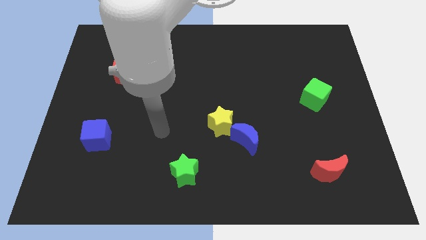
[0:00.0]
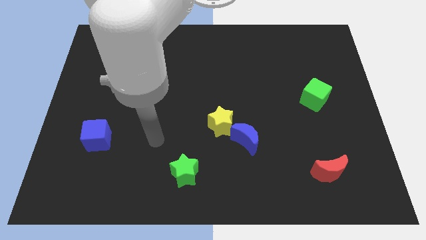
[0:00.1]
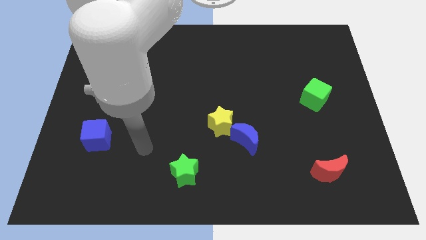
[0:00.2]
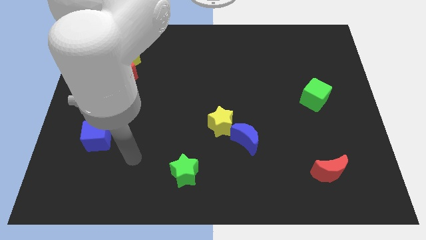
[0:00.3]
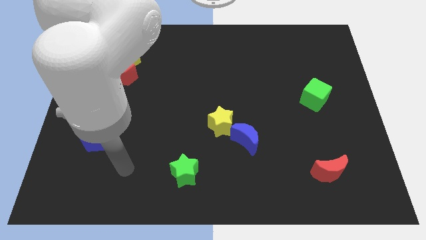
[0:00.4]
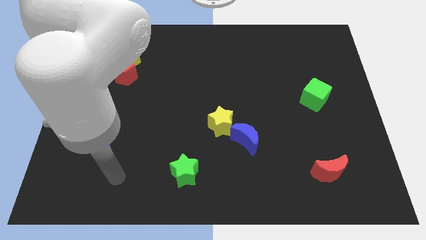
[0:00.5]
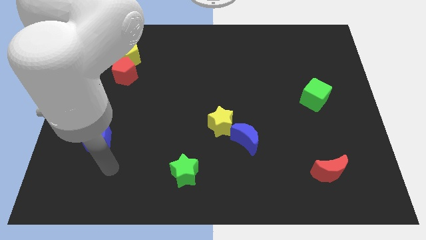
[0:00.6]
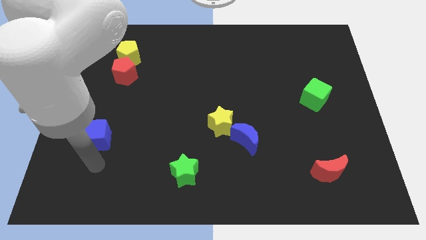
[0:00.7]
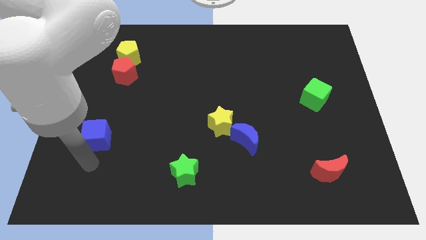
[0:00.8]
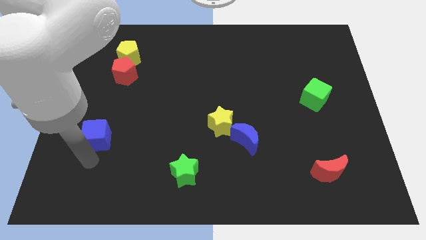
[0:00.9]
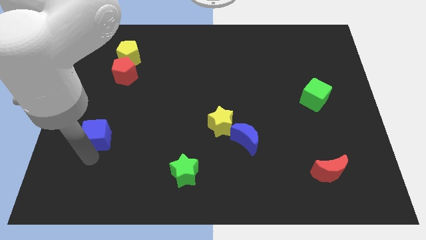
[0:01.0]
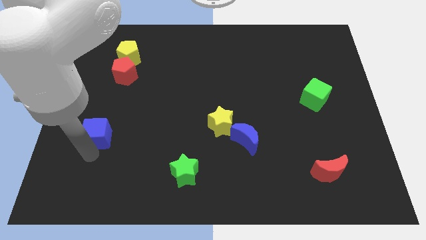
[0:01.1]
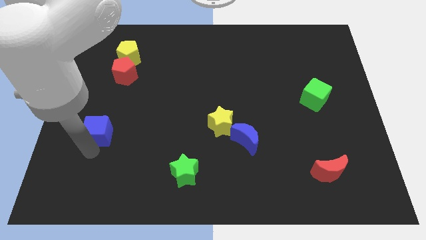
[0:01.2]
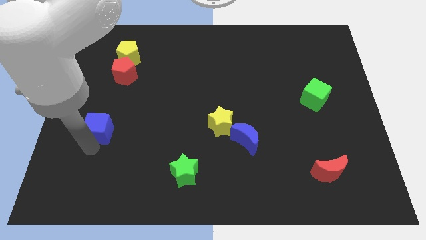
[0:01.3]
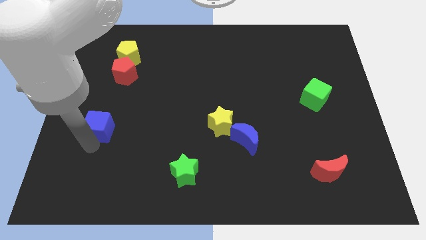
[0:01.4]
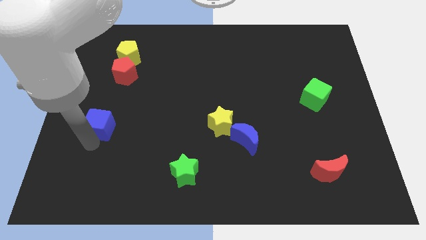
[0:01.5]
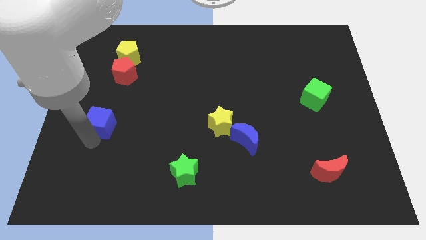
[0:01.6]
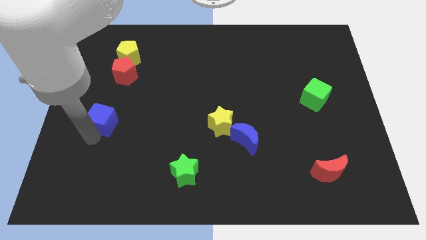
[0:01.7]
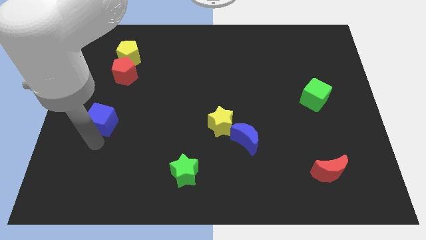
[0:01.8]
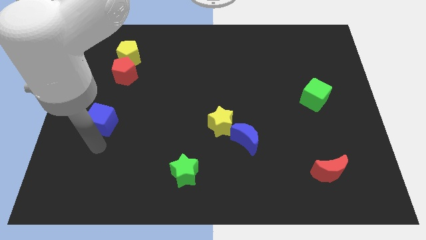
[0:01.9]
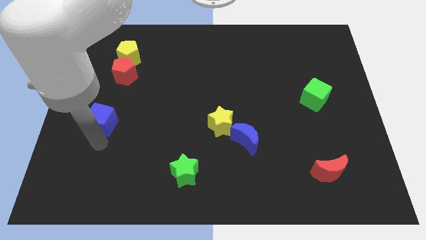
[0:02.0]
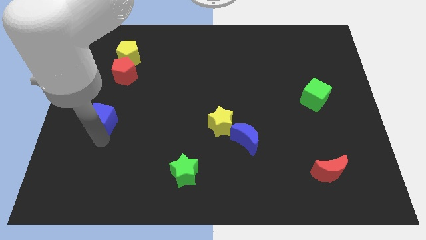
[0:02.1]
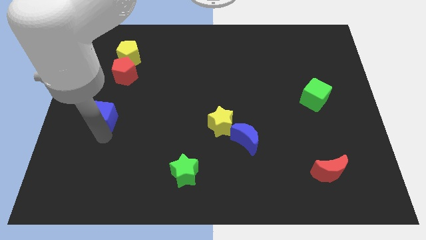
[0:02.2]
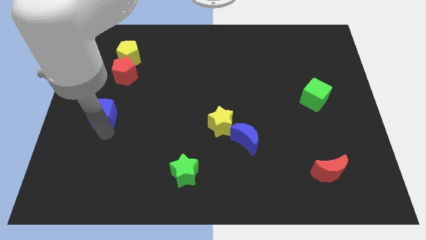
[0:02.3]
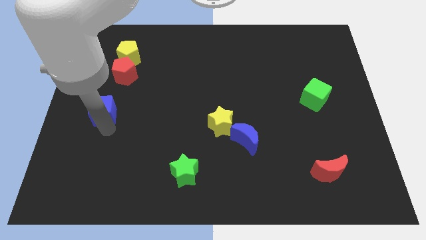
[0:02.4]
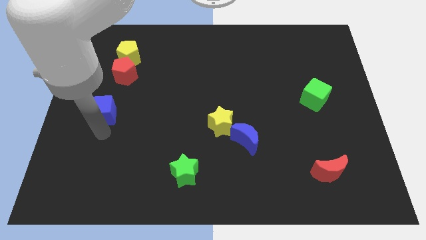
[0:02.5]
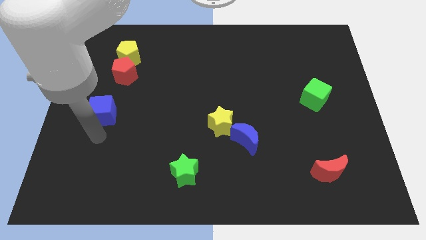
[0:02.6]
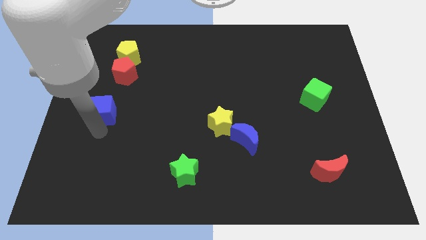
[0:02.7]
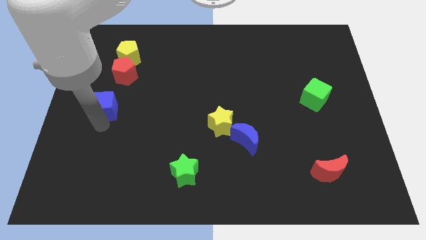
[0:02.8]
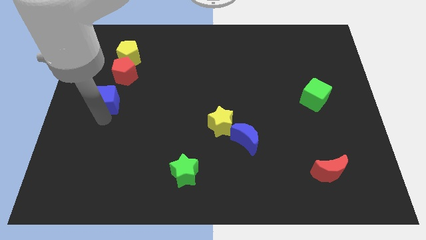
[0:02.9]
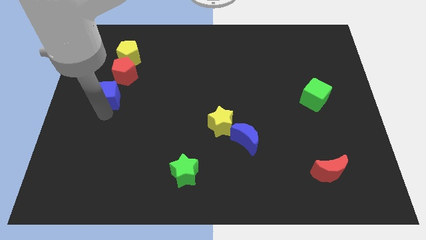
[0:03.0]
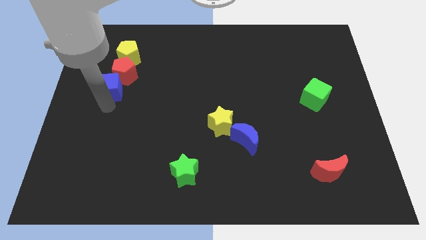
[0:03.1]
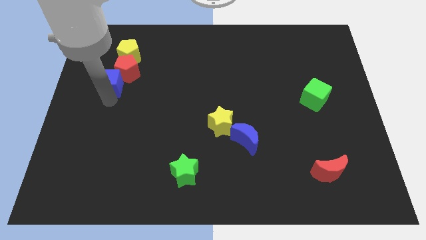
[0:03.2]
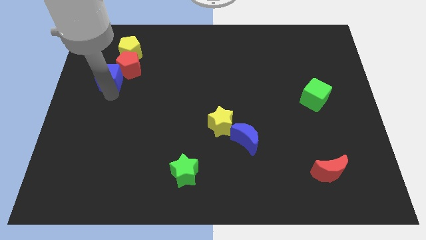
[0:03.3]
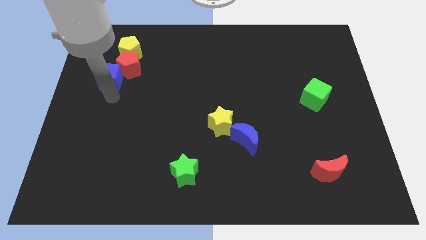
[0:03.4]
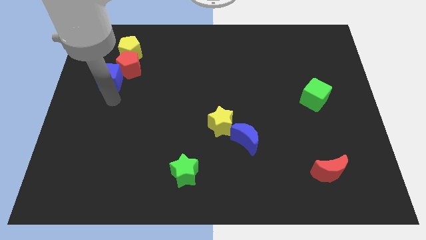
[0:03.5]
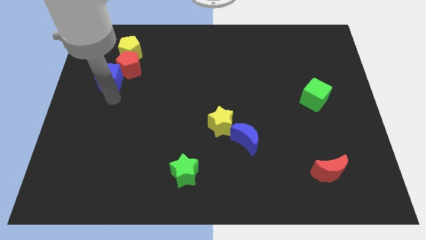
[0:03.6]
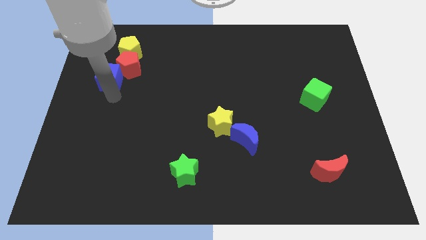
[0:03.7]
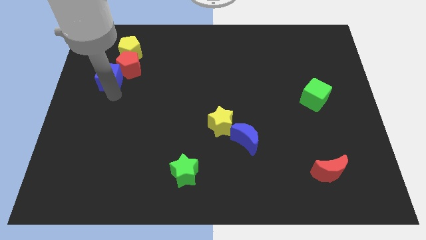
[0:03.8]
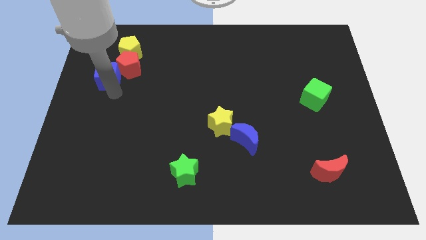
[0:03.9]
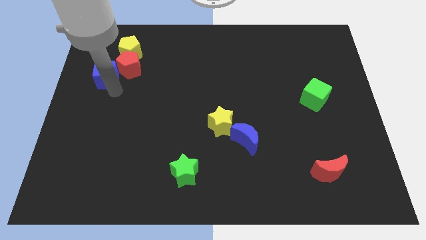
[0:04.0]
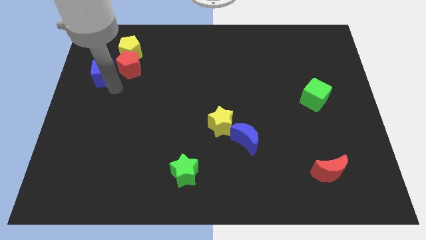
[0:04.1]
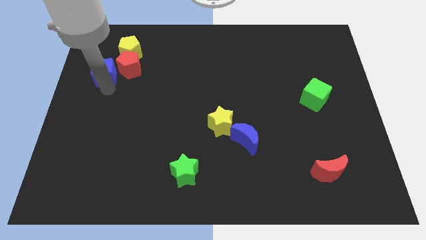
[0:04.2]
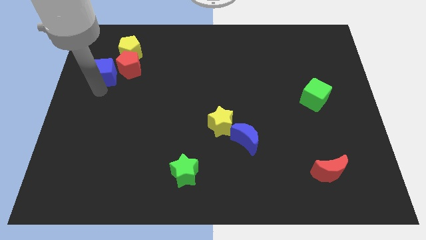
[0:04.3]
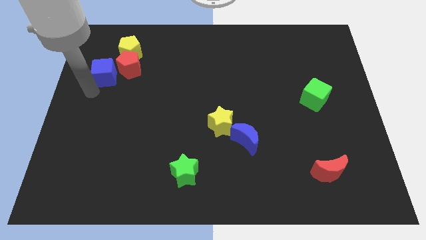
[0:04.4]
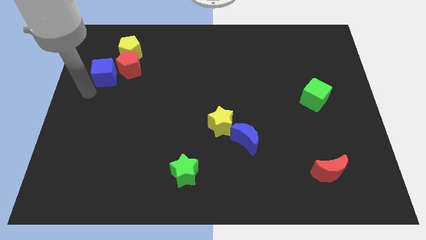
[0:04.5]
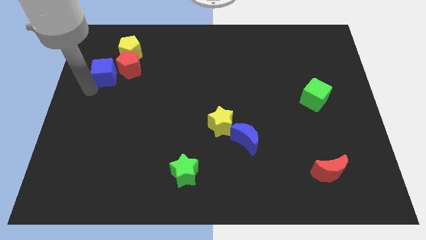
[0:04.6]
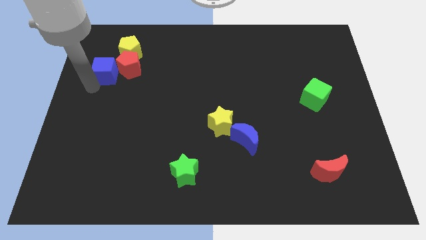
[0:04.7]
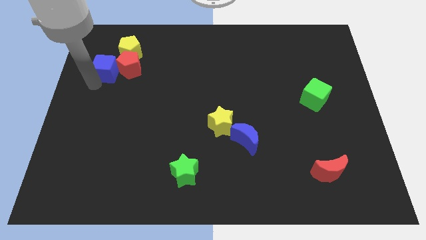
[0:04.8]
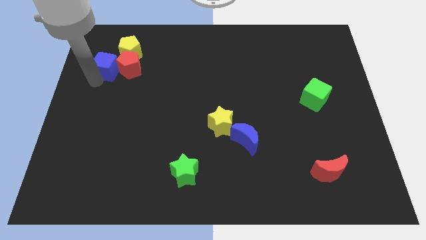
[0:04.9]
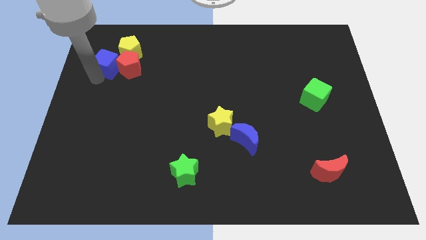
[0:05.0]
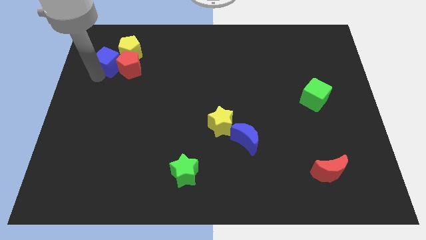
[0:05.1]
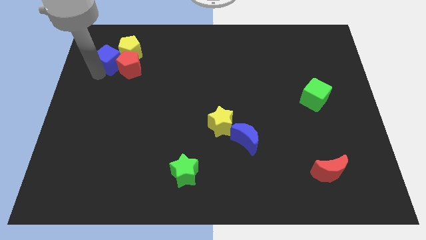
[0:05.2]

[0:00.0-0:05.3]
slide the blue cube to the yellow pentagon

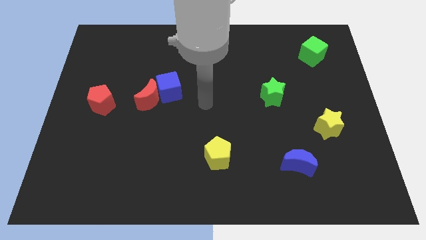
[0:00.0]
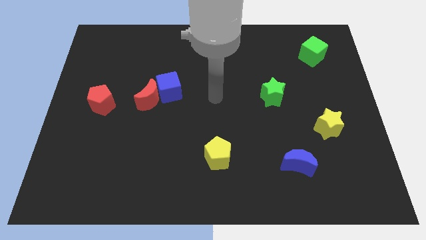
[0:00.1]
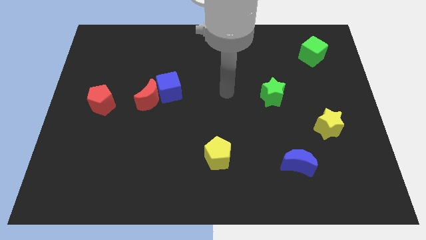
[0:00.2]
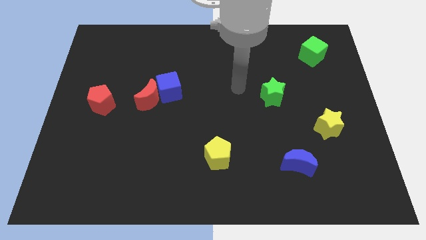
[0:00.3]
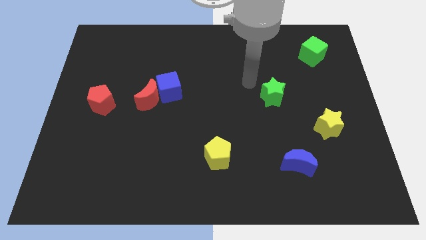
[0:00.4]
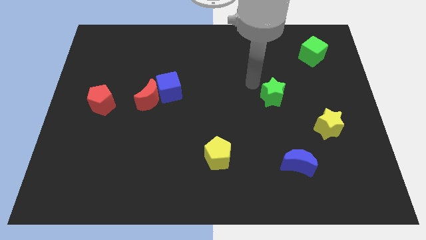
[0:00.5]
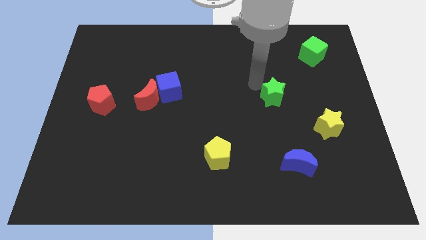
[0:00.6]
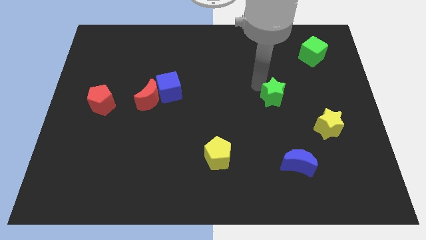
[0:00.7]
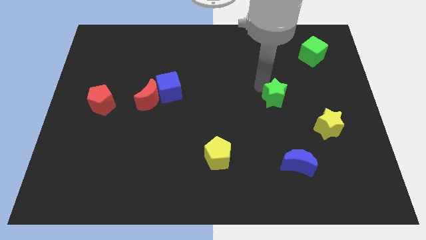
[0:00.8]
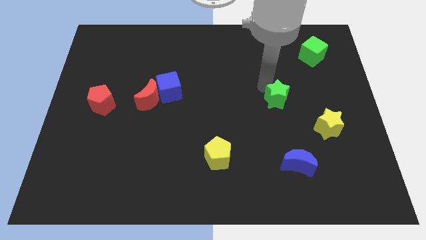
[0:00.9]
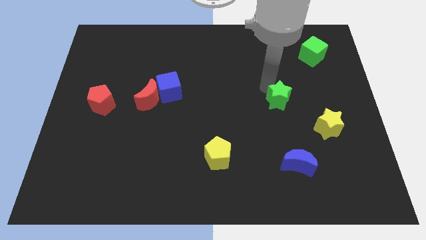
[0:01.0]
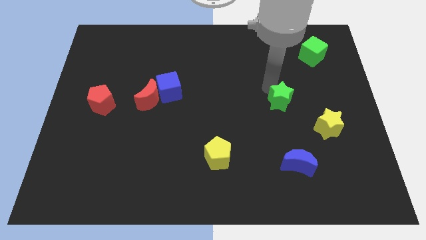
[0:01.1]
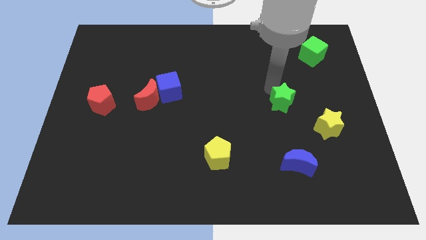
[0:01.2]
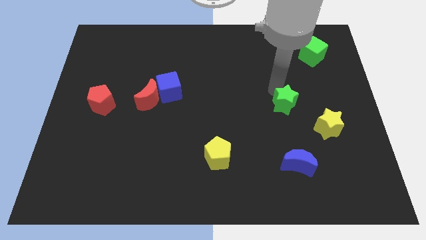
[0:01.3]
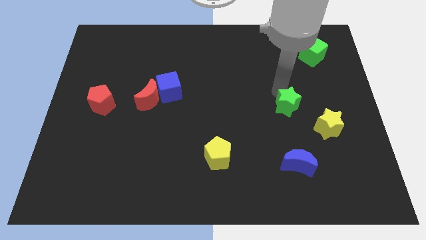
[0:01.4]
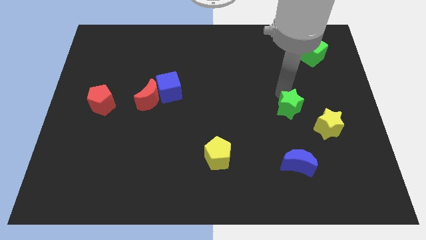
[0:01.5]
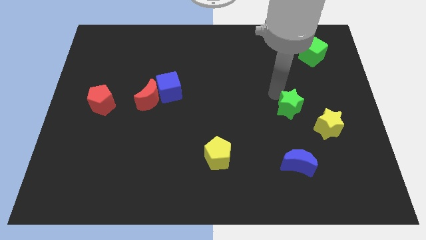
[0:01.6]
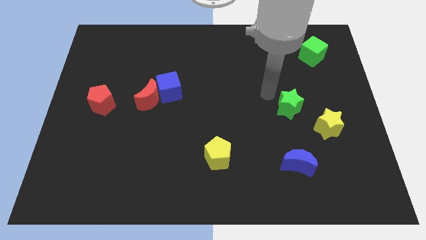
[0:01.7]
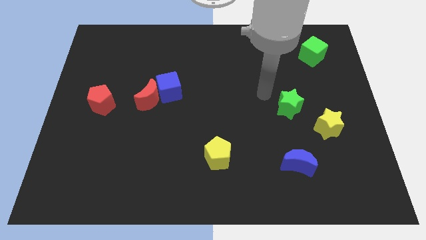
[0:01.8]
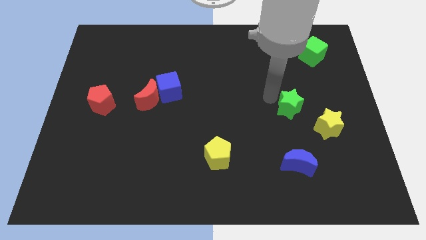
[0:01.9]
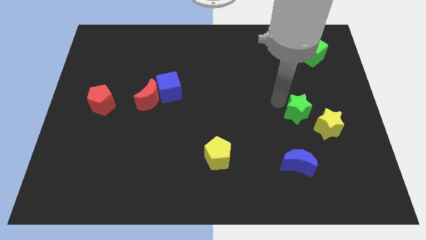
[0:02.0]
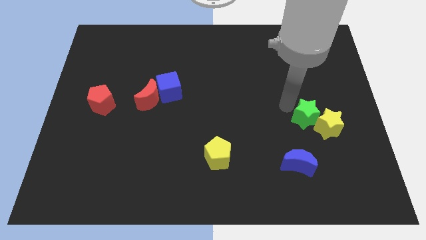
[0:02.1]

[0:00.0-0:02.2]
push the green star towards the yellow star
